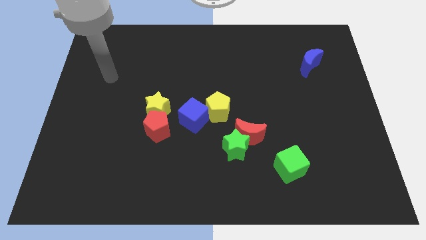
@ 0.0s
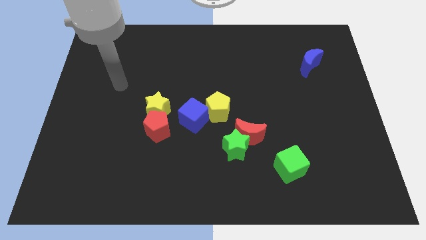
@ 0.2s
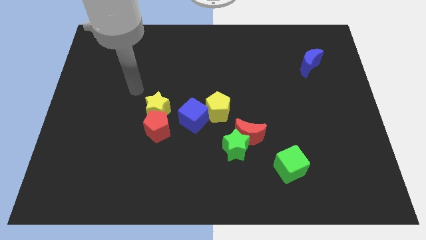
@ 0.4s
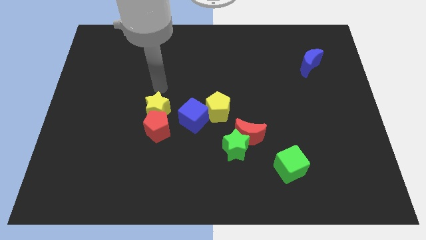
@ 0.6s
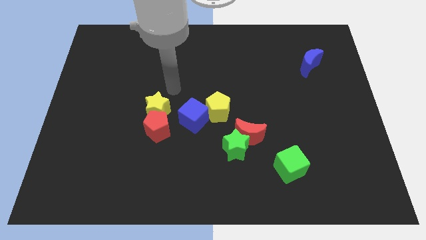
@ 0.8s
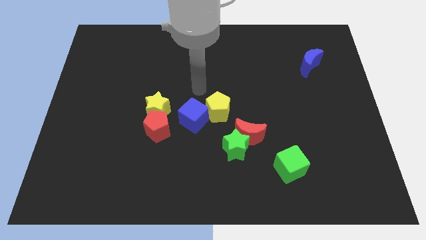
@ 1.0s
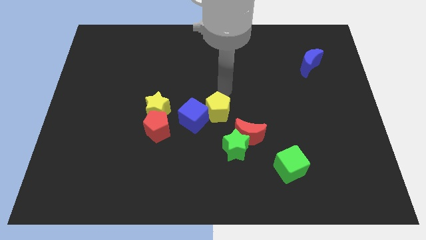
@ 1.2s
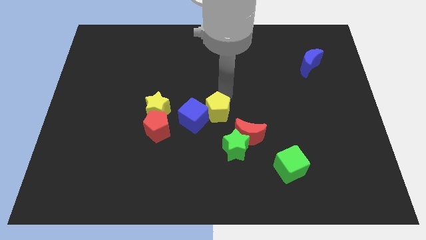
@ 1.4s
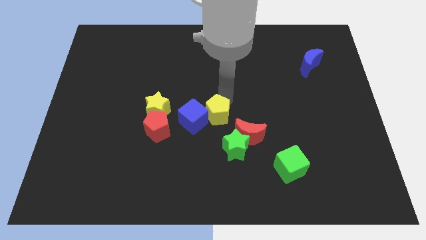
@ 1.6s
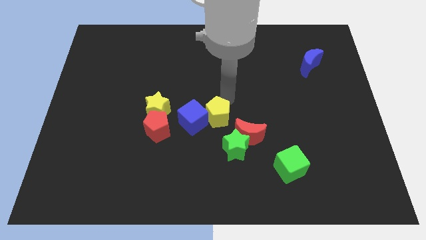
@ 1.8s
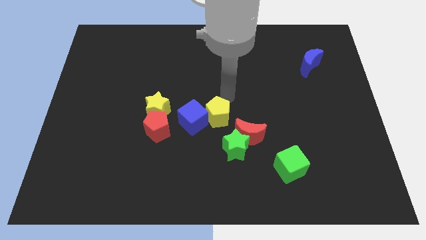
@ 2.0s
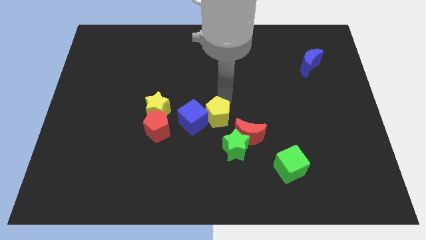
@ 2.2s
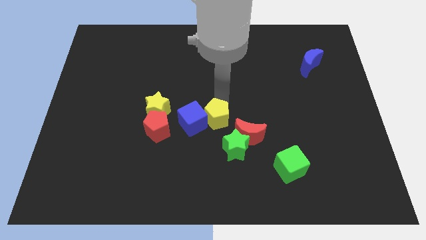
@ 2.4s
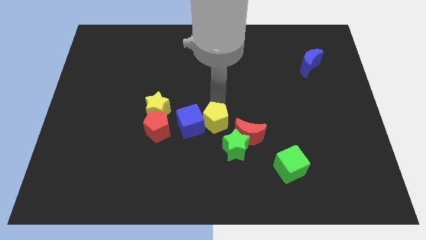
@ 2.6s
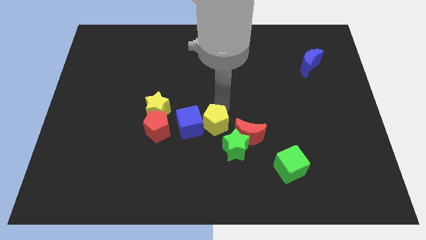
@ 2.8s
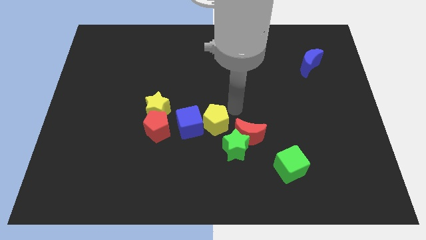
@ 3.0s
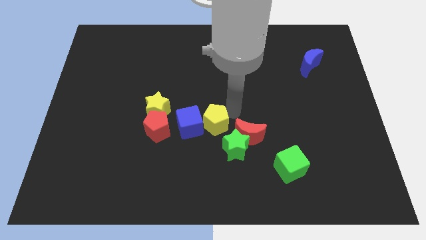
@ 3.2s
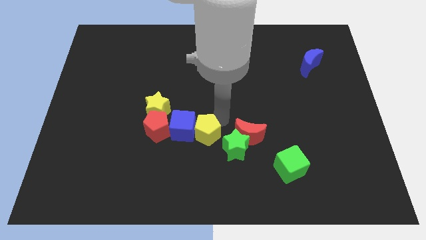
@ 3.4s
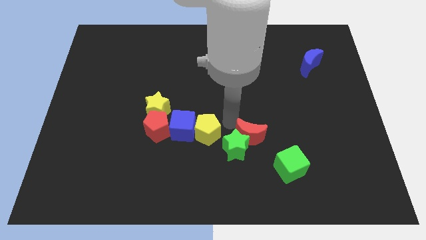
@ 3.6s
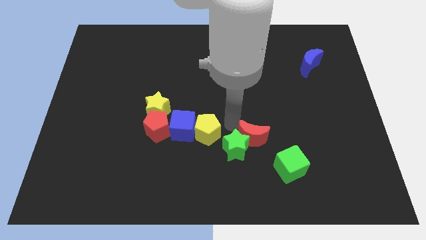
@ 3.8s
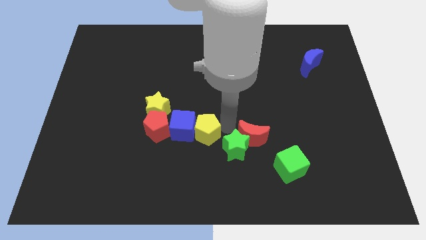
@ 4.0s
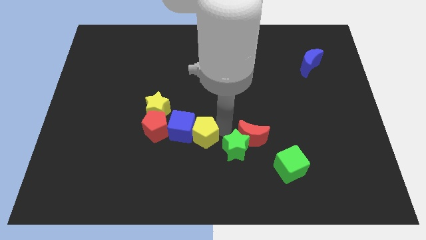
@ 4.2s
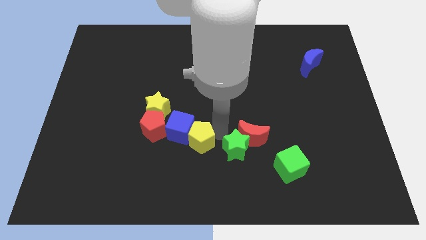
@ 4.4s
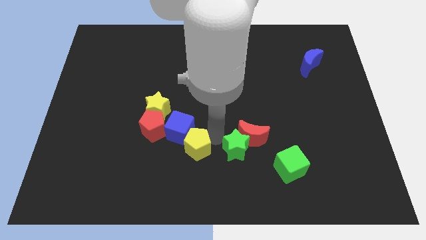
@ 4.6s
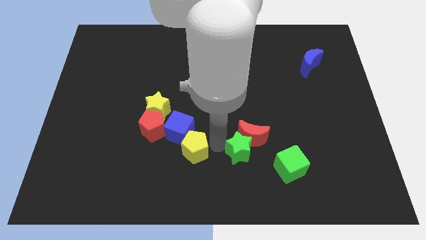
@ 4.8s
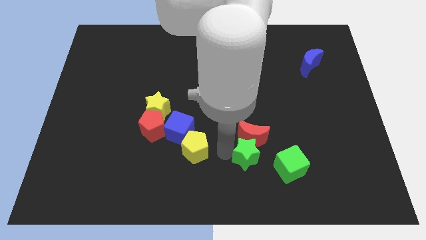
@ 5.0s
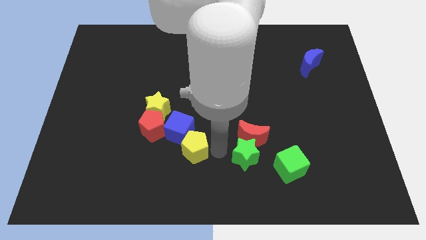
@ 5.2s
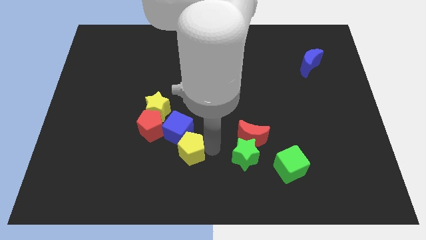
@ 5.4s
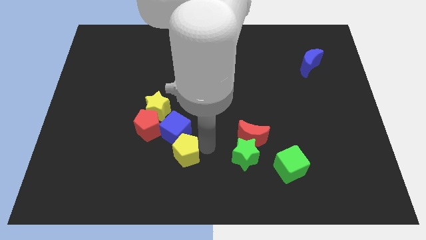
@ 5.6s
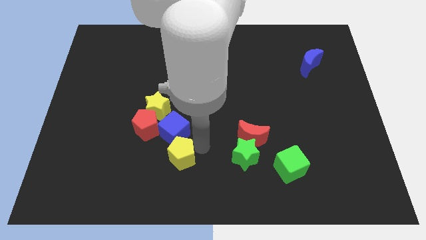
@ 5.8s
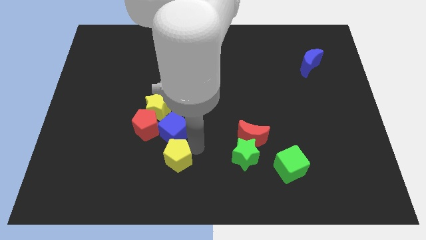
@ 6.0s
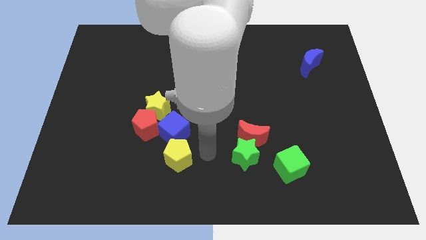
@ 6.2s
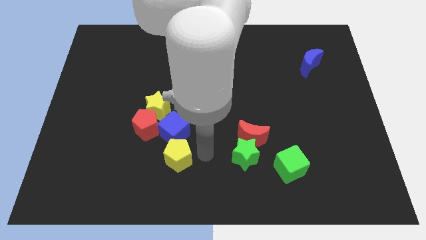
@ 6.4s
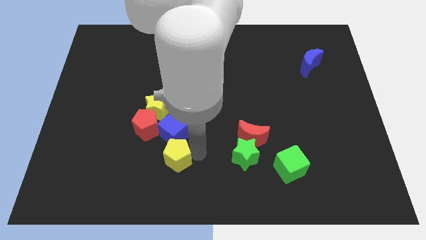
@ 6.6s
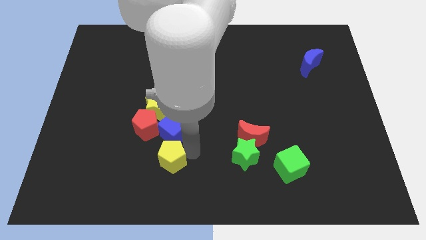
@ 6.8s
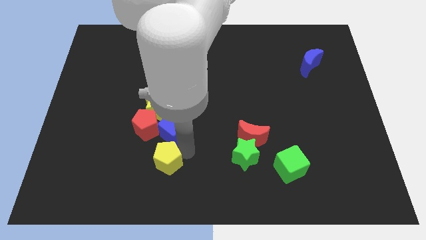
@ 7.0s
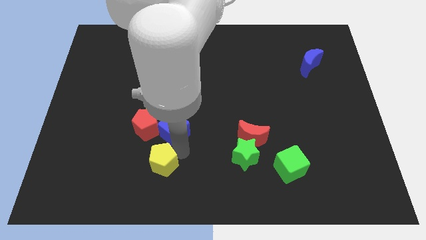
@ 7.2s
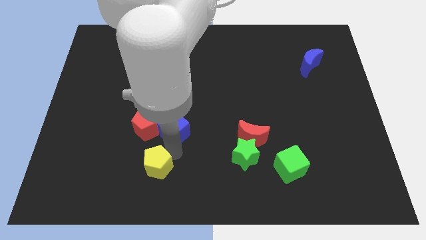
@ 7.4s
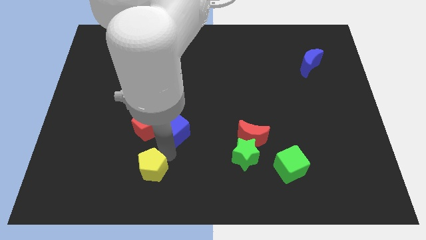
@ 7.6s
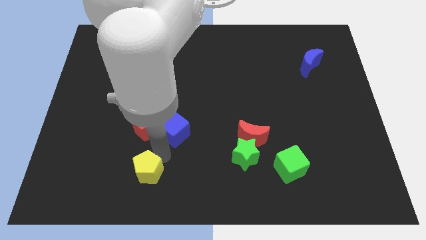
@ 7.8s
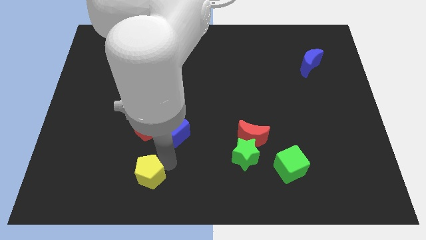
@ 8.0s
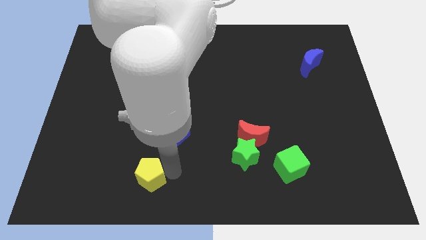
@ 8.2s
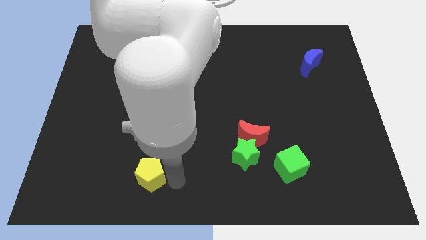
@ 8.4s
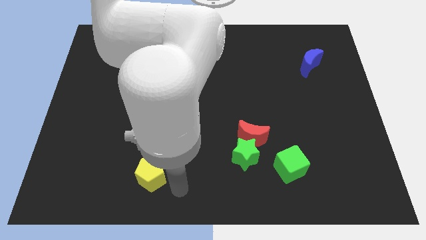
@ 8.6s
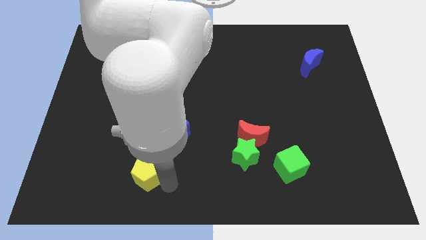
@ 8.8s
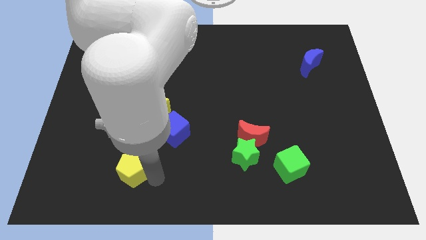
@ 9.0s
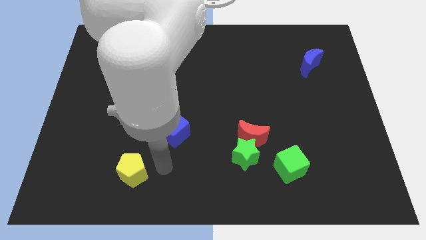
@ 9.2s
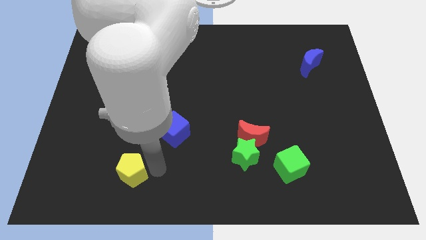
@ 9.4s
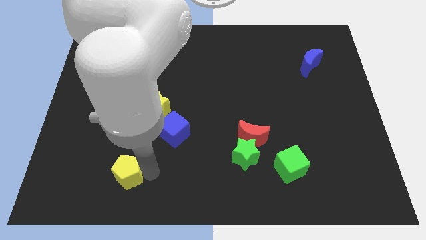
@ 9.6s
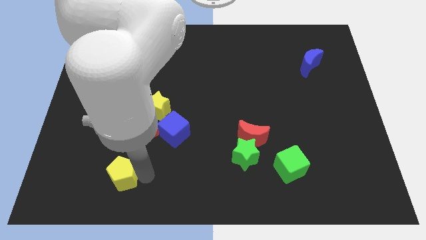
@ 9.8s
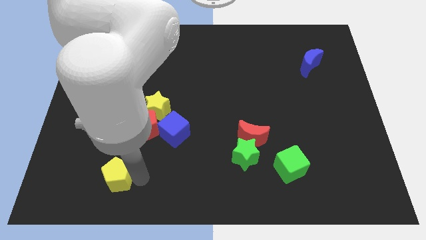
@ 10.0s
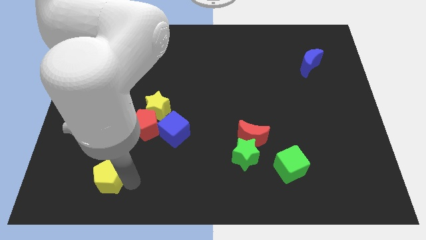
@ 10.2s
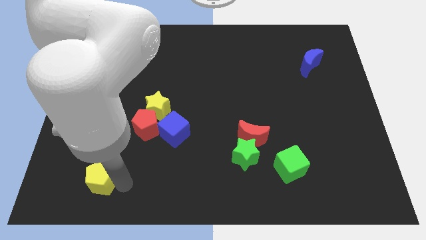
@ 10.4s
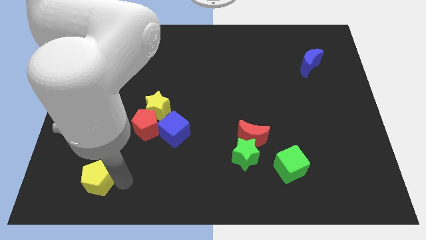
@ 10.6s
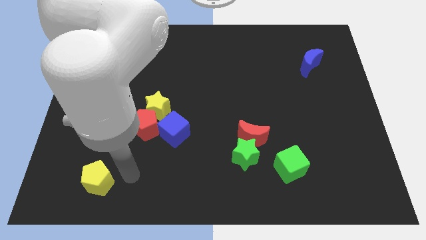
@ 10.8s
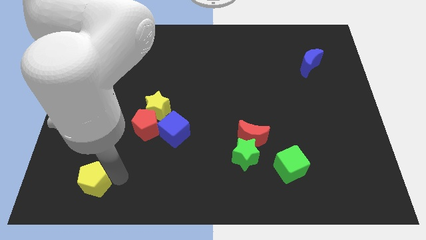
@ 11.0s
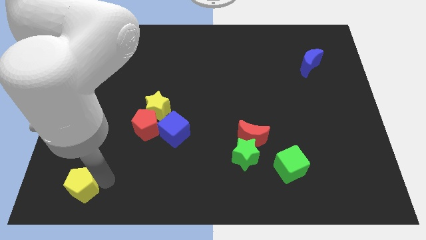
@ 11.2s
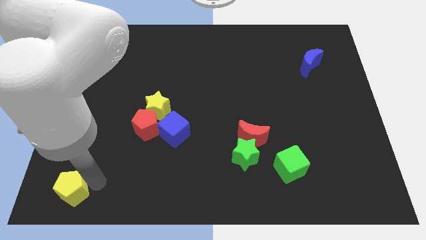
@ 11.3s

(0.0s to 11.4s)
move the yellow pentagon to the lower left corner

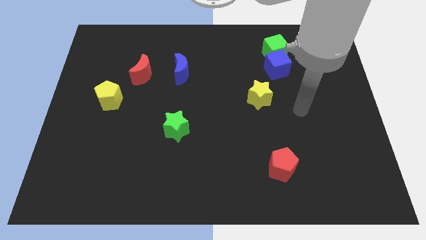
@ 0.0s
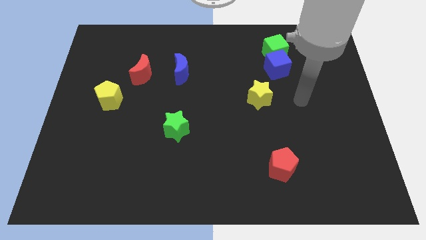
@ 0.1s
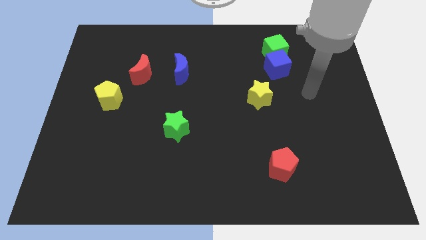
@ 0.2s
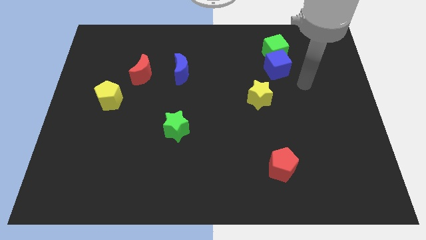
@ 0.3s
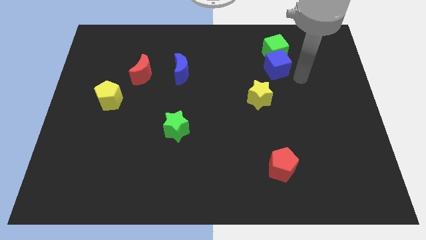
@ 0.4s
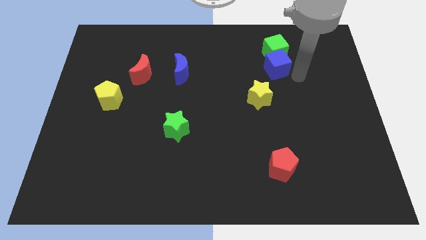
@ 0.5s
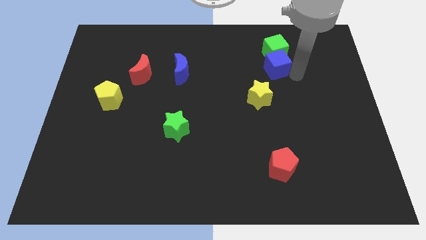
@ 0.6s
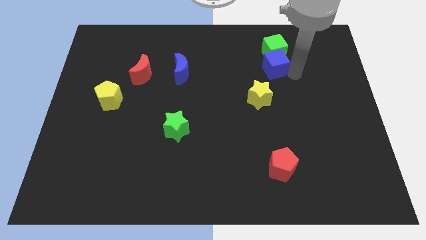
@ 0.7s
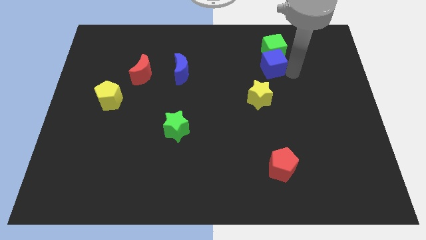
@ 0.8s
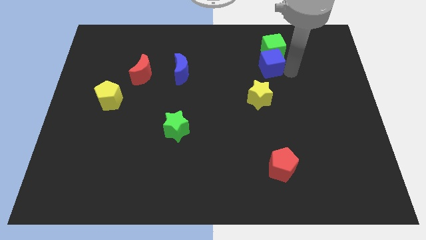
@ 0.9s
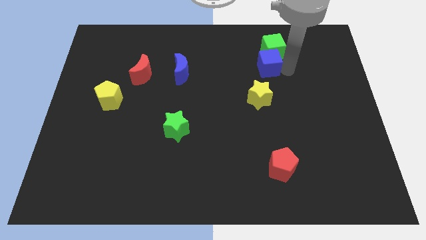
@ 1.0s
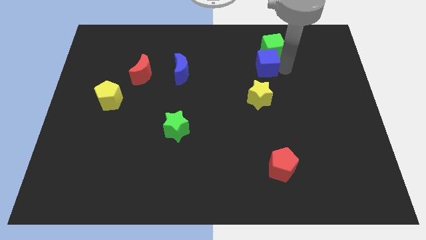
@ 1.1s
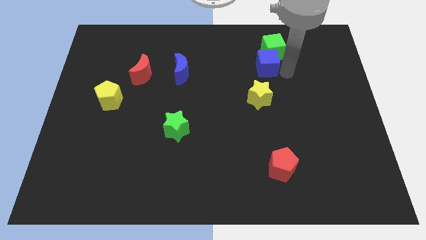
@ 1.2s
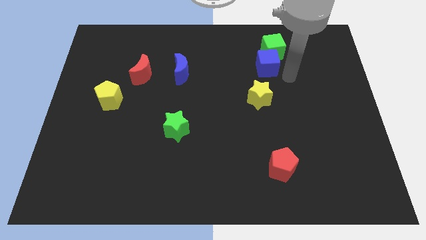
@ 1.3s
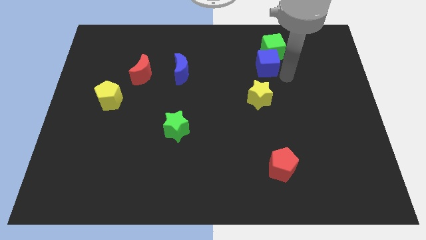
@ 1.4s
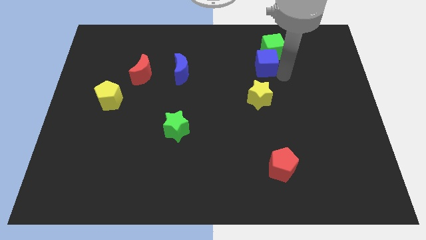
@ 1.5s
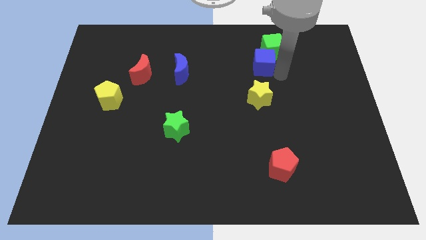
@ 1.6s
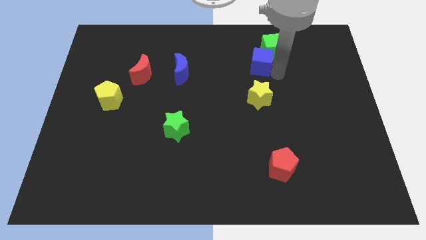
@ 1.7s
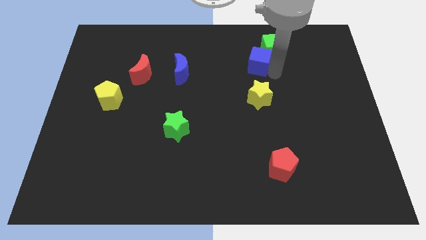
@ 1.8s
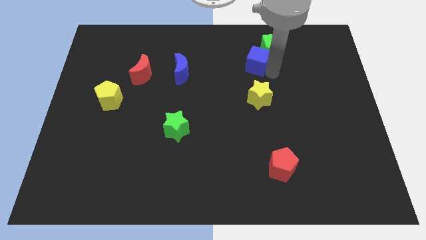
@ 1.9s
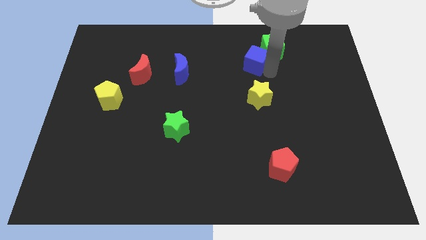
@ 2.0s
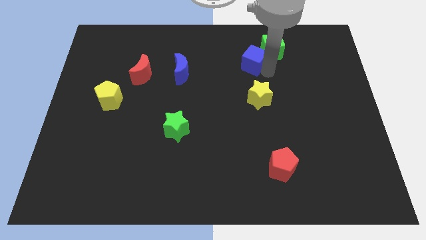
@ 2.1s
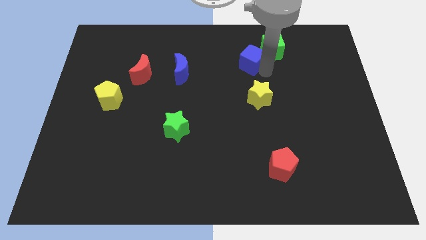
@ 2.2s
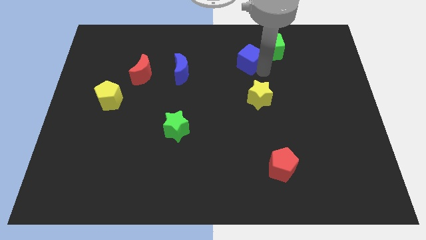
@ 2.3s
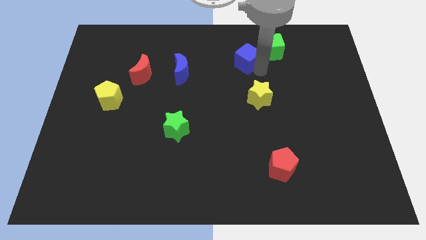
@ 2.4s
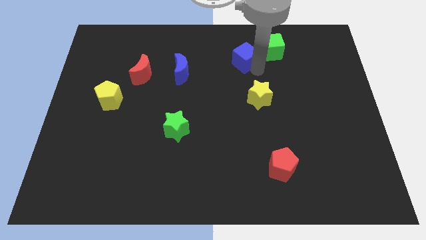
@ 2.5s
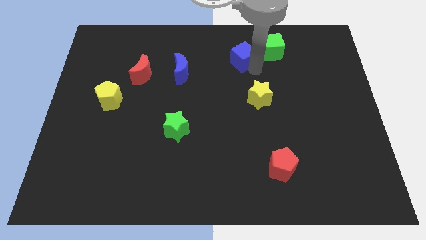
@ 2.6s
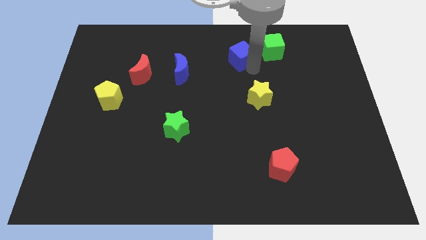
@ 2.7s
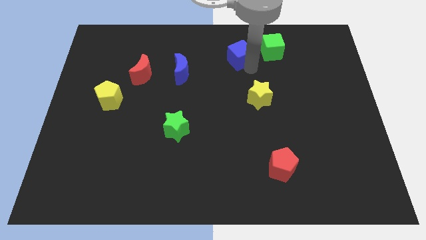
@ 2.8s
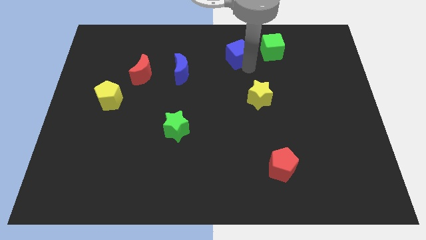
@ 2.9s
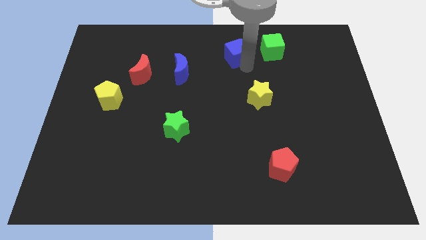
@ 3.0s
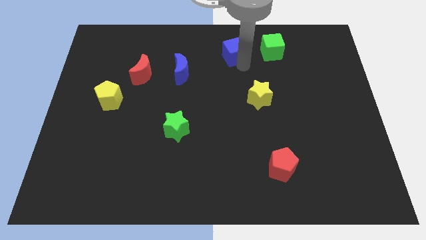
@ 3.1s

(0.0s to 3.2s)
slide the blue cube to the top side
